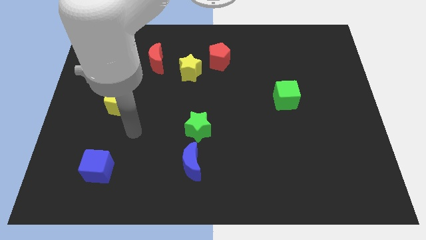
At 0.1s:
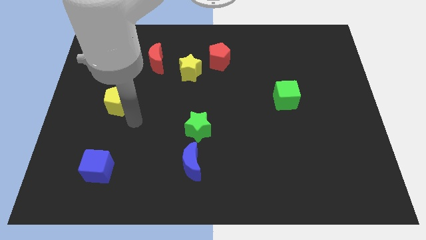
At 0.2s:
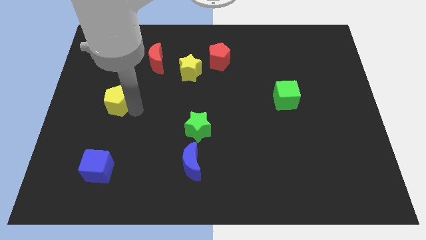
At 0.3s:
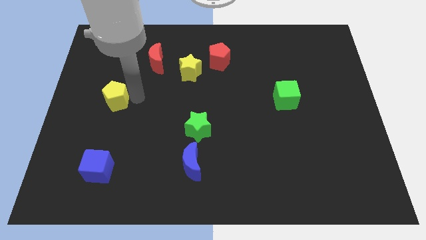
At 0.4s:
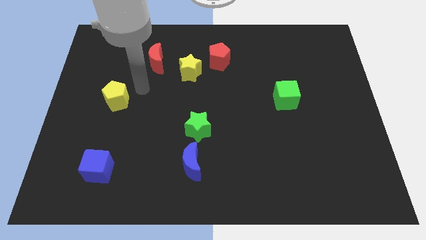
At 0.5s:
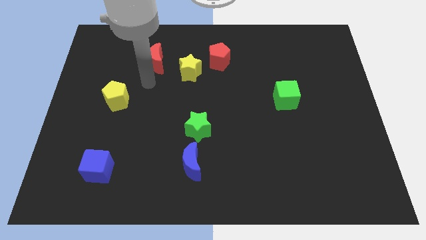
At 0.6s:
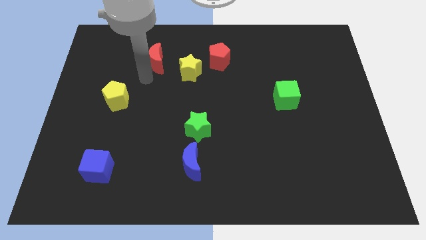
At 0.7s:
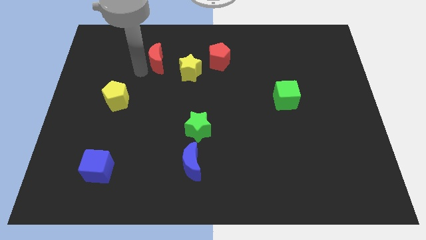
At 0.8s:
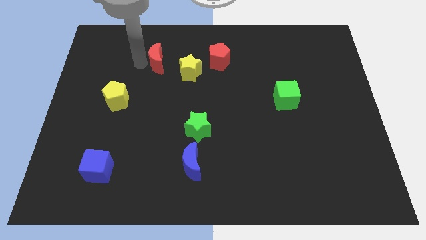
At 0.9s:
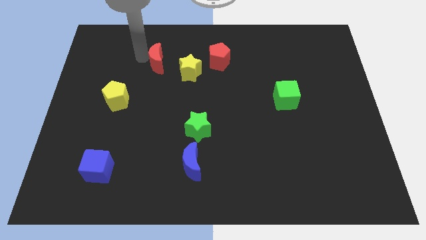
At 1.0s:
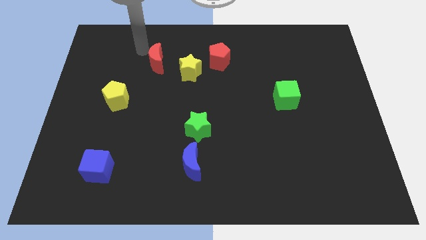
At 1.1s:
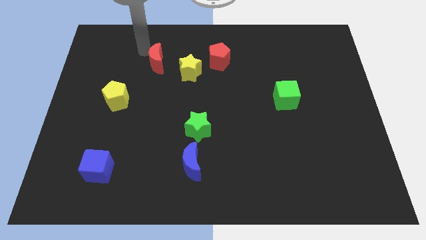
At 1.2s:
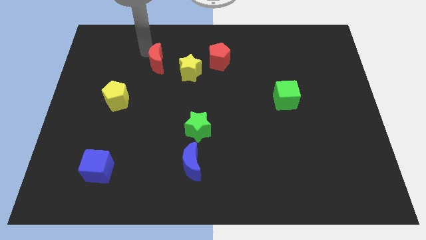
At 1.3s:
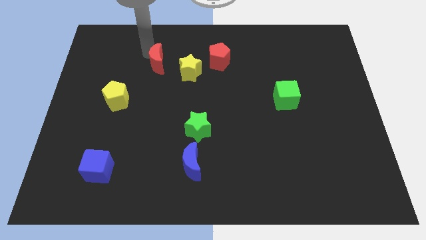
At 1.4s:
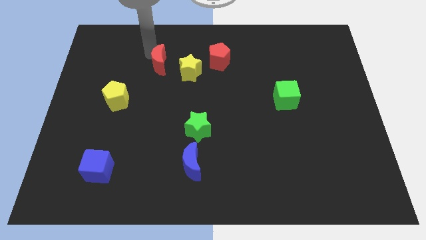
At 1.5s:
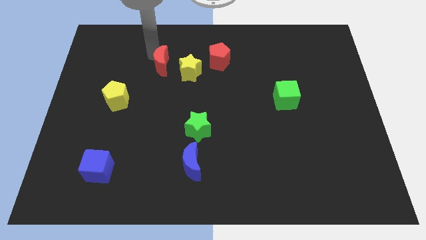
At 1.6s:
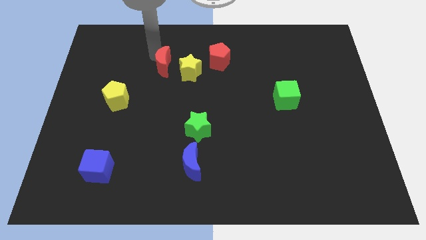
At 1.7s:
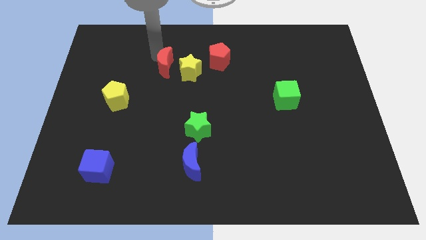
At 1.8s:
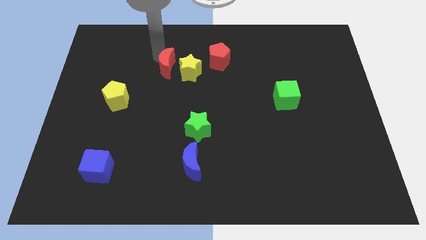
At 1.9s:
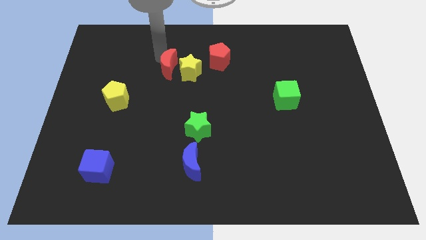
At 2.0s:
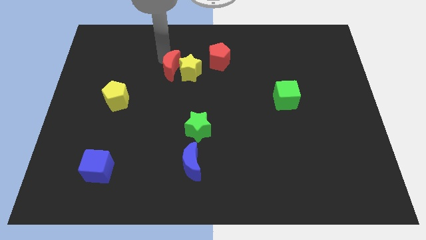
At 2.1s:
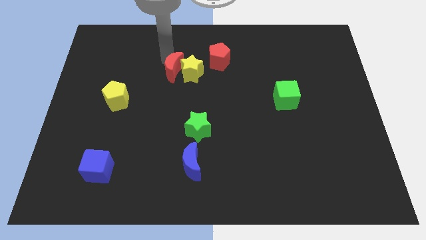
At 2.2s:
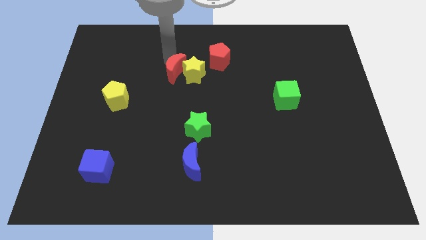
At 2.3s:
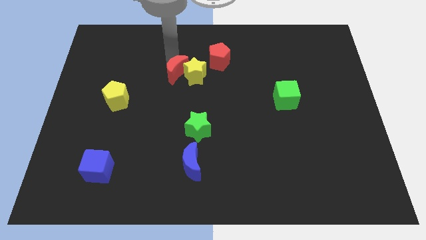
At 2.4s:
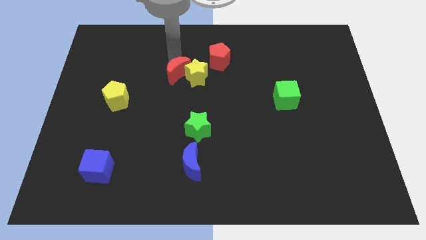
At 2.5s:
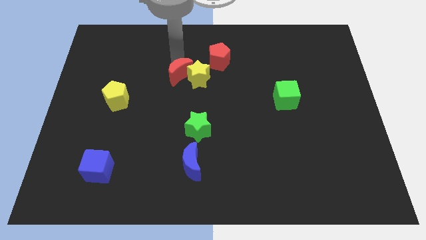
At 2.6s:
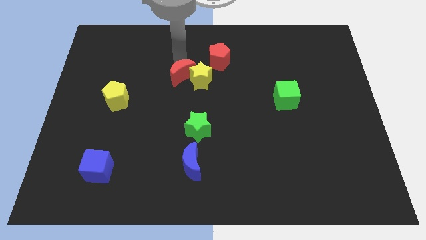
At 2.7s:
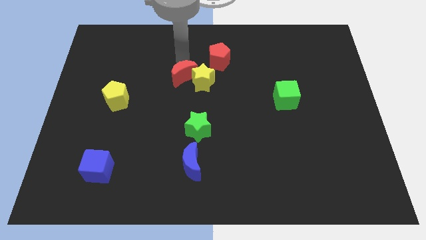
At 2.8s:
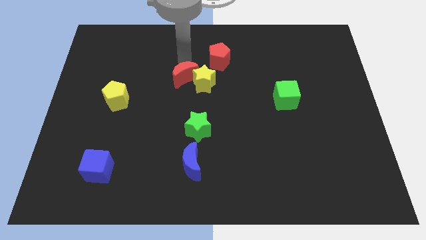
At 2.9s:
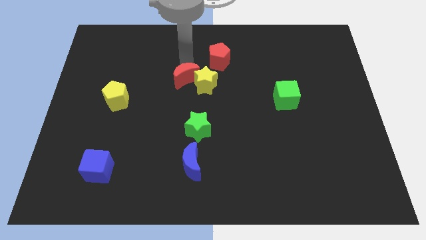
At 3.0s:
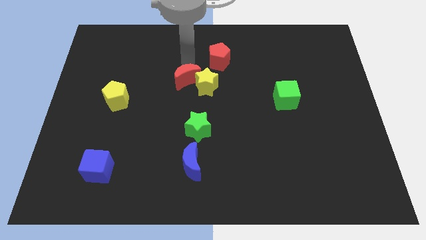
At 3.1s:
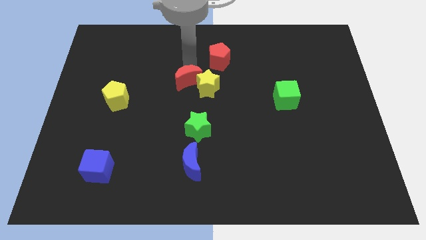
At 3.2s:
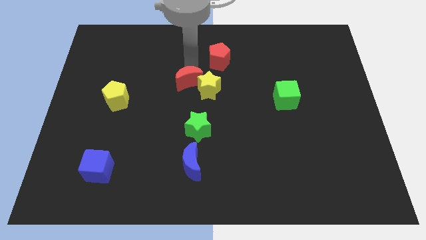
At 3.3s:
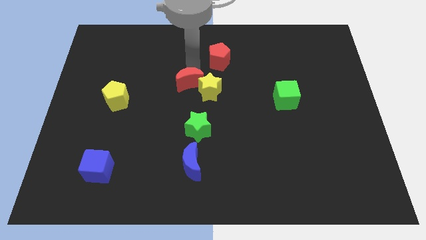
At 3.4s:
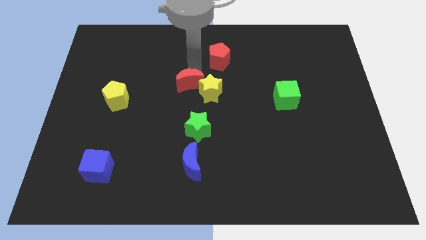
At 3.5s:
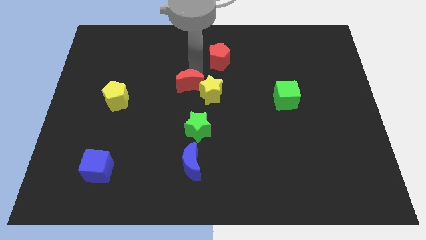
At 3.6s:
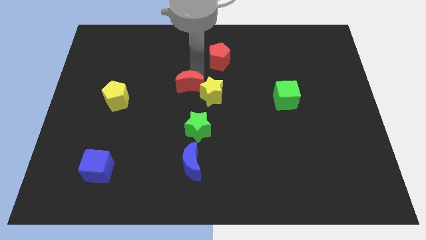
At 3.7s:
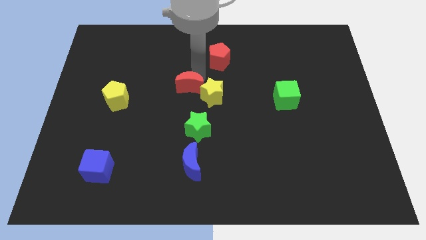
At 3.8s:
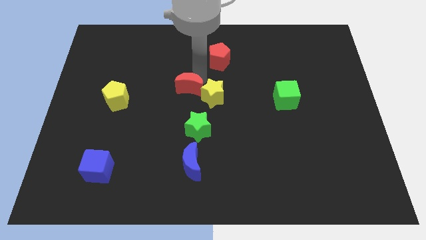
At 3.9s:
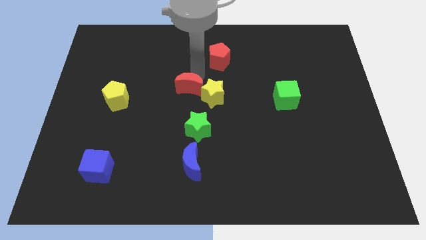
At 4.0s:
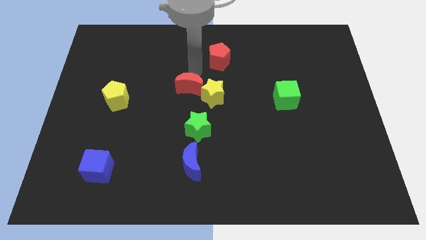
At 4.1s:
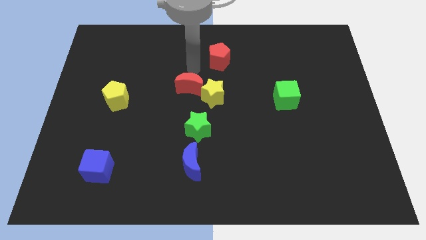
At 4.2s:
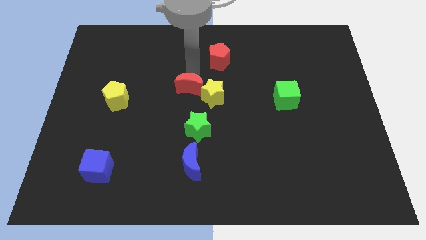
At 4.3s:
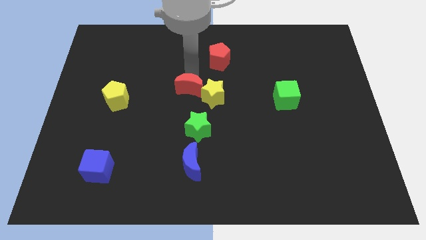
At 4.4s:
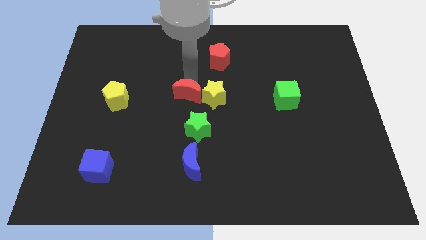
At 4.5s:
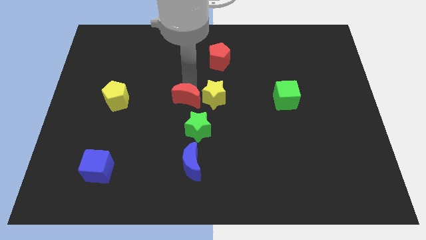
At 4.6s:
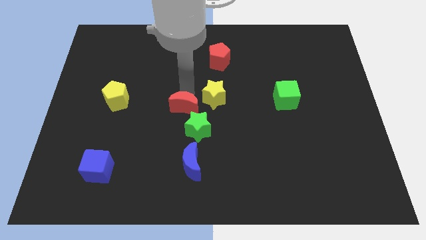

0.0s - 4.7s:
move the red moon above the blue moon

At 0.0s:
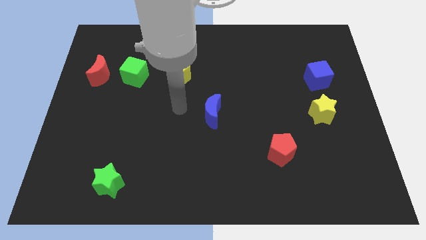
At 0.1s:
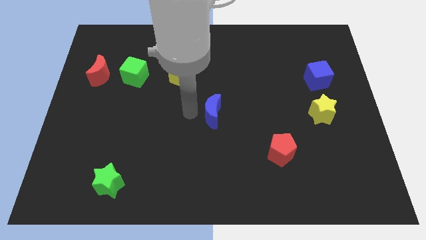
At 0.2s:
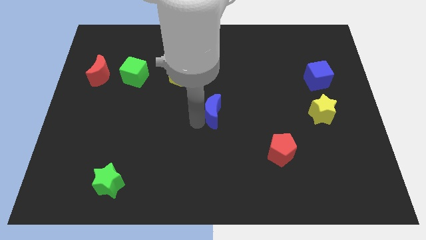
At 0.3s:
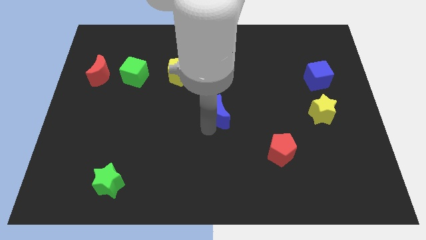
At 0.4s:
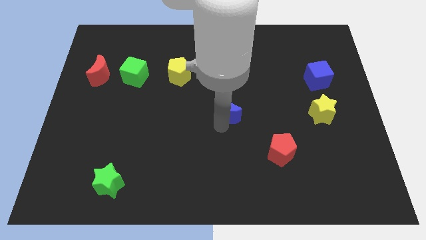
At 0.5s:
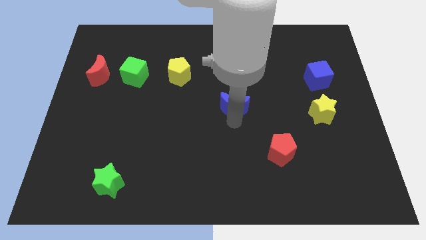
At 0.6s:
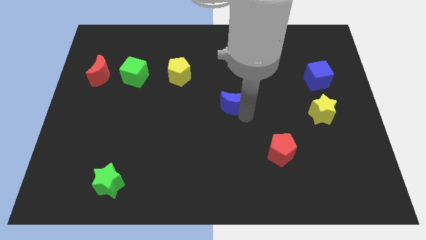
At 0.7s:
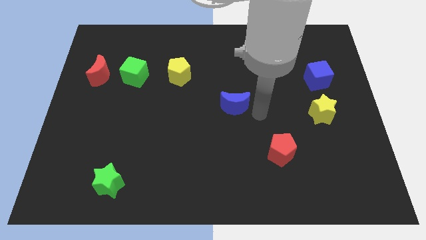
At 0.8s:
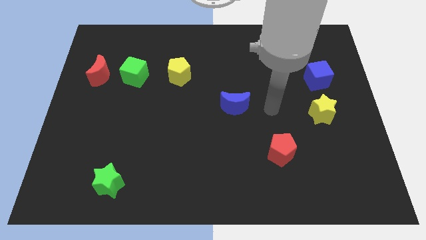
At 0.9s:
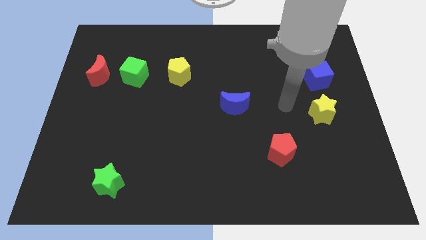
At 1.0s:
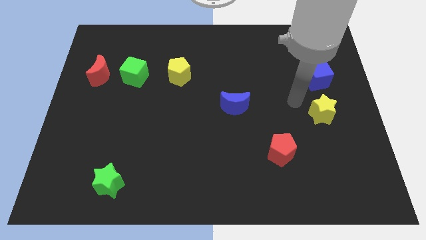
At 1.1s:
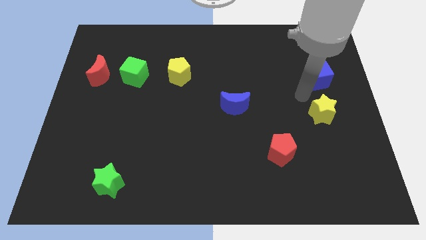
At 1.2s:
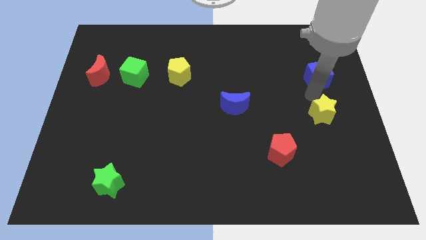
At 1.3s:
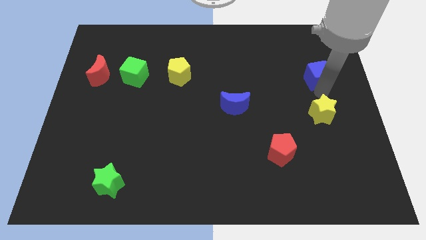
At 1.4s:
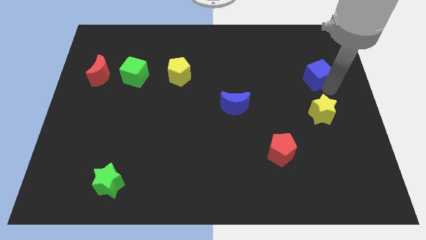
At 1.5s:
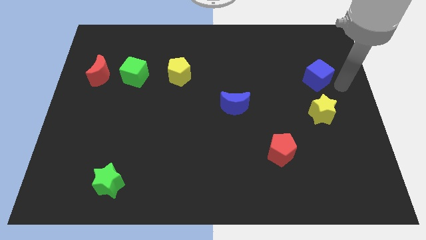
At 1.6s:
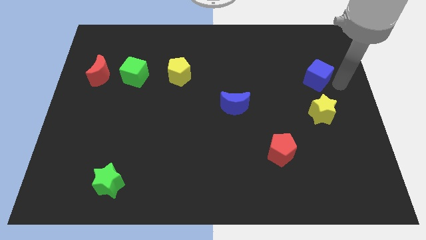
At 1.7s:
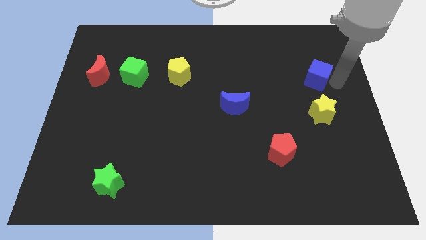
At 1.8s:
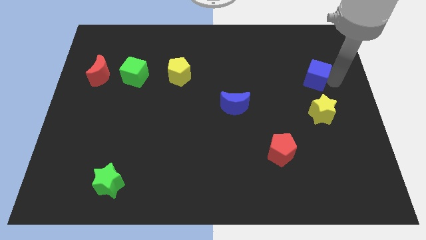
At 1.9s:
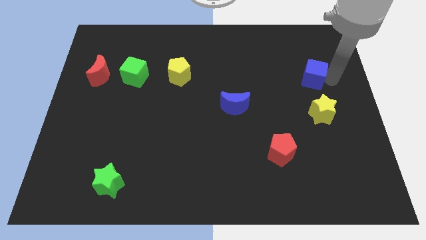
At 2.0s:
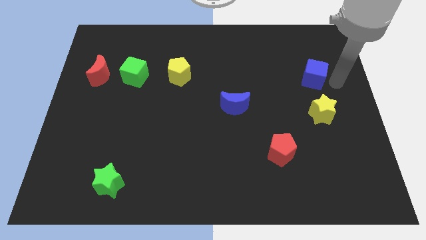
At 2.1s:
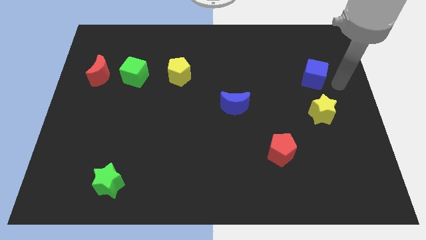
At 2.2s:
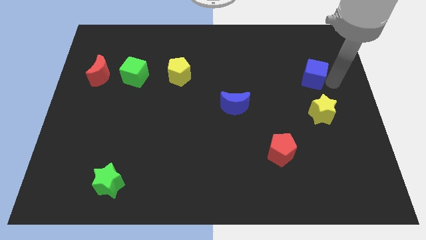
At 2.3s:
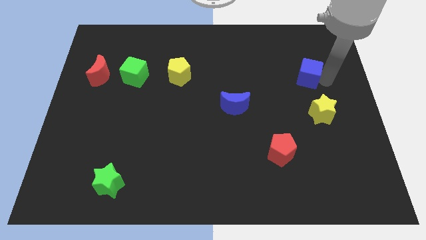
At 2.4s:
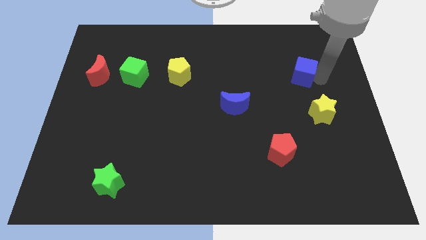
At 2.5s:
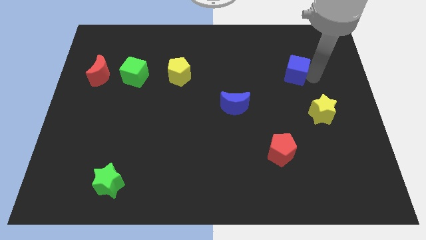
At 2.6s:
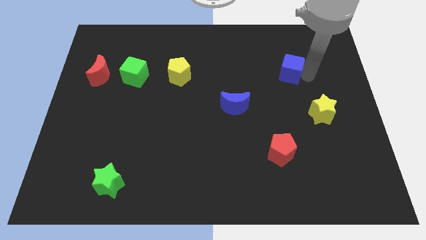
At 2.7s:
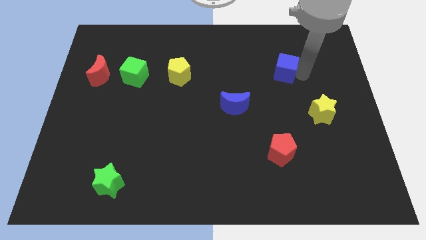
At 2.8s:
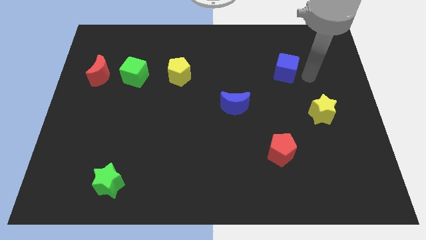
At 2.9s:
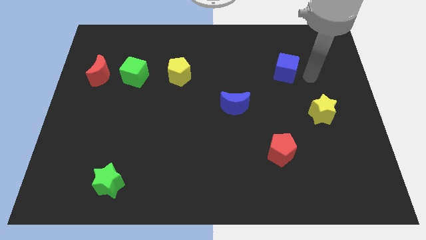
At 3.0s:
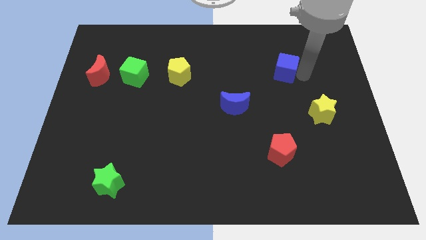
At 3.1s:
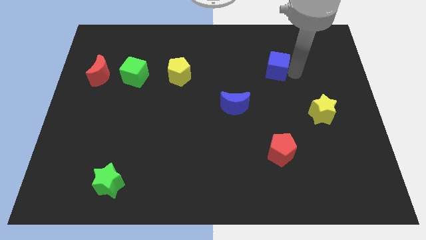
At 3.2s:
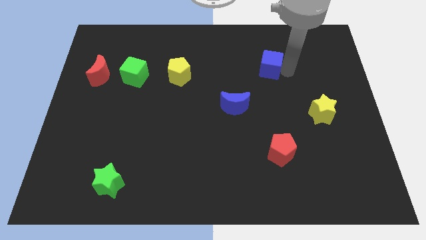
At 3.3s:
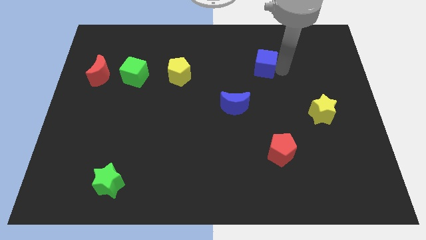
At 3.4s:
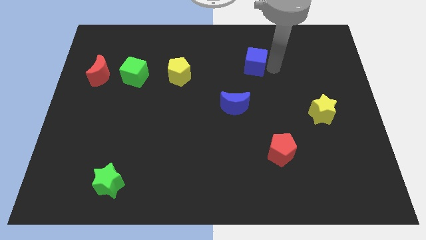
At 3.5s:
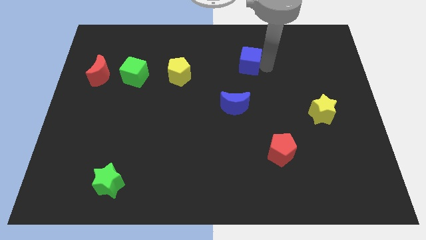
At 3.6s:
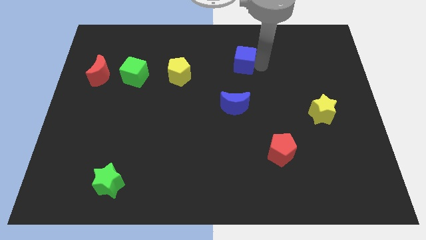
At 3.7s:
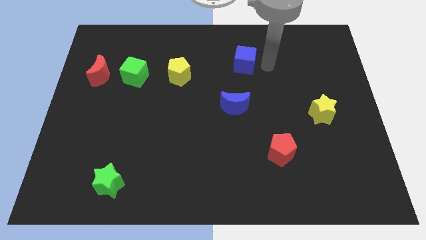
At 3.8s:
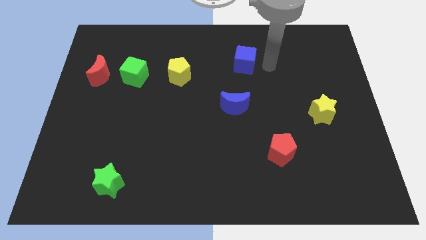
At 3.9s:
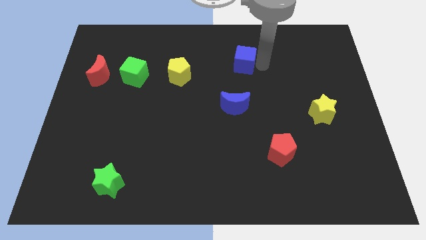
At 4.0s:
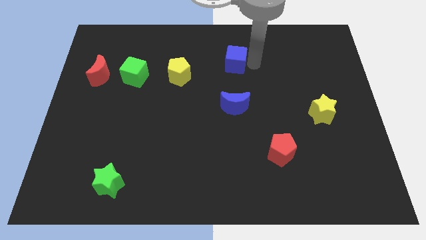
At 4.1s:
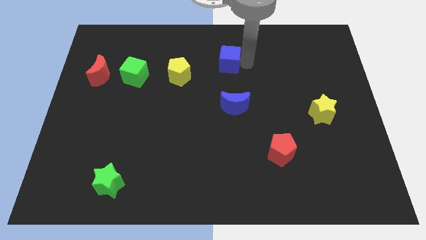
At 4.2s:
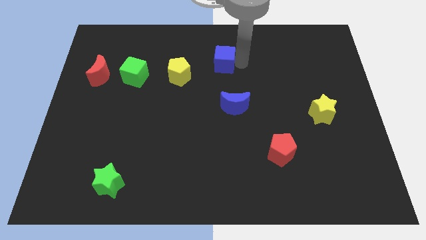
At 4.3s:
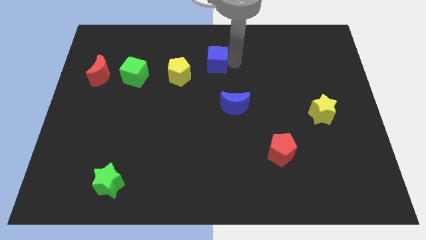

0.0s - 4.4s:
move the blue cube to the top right of the yellow pentagon
